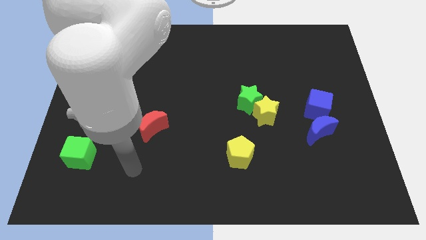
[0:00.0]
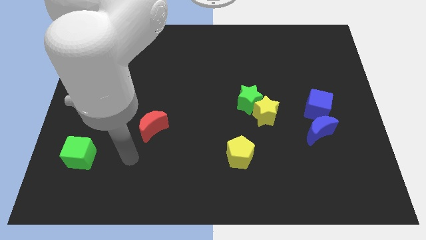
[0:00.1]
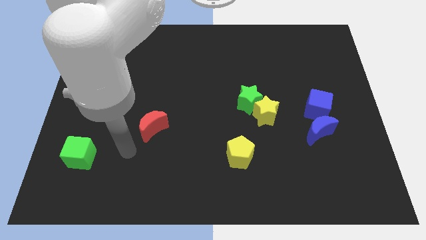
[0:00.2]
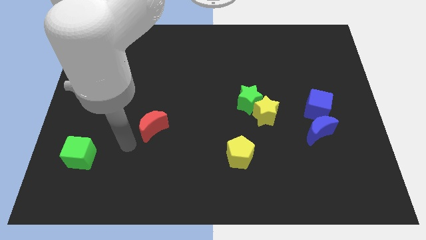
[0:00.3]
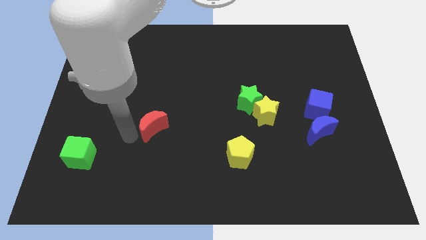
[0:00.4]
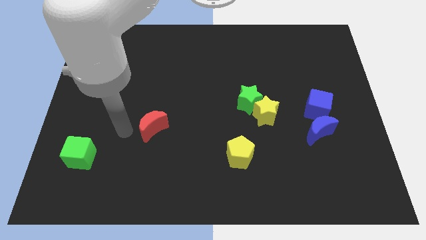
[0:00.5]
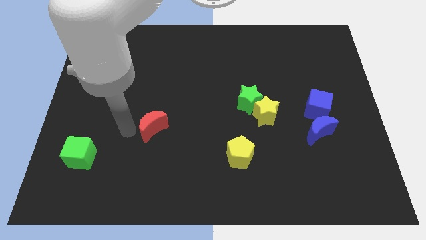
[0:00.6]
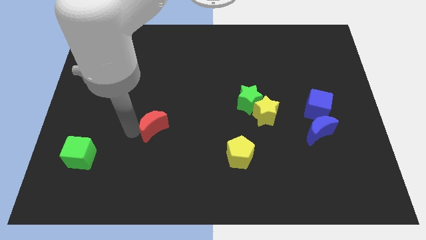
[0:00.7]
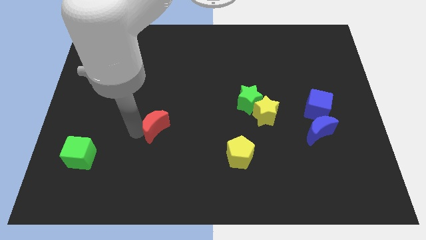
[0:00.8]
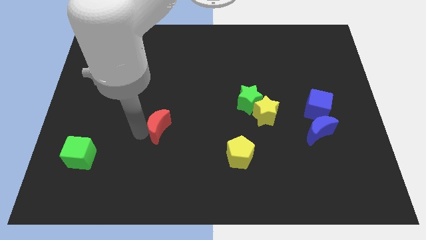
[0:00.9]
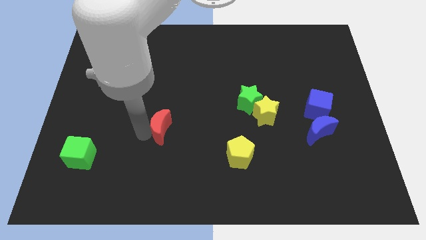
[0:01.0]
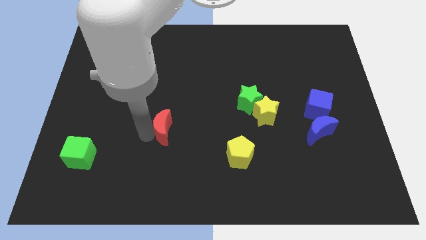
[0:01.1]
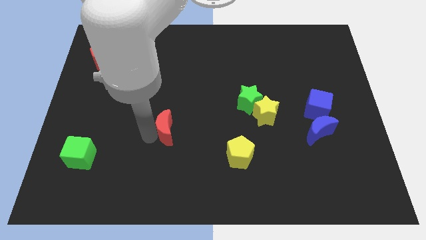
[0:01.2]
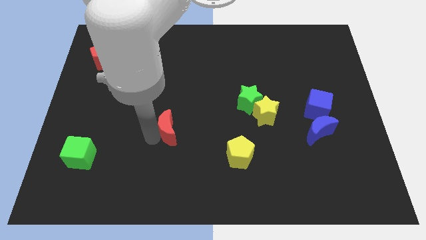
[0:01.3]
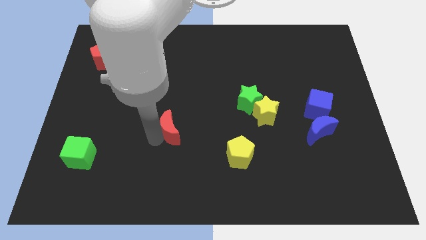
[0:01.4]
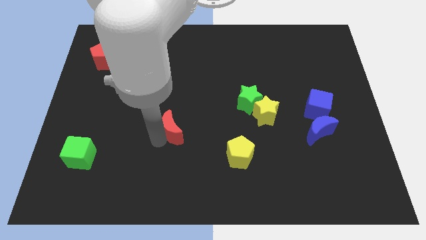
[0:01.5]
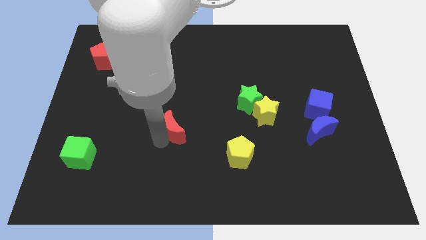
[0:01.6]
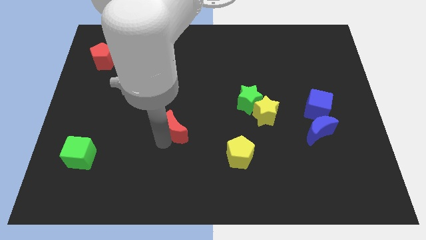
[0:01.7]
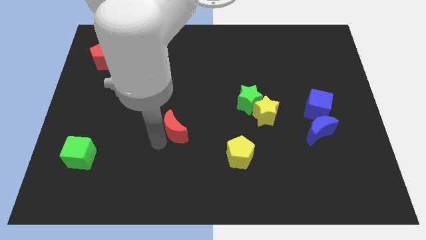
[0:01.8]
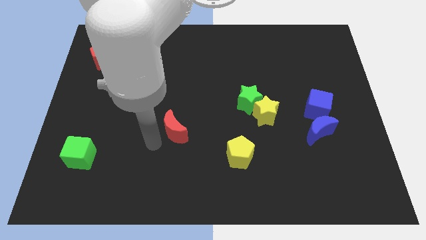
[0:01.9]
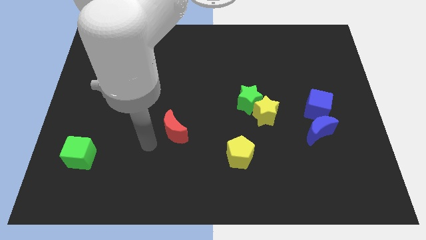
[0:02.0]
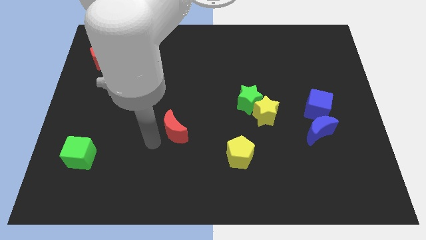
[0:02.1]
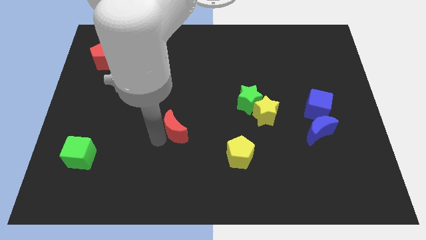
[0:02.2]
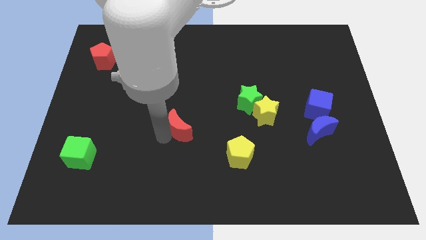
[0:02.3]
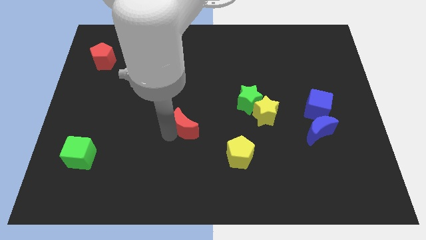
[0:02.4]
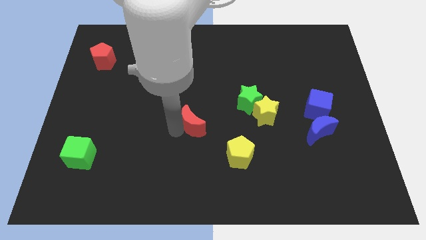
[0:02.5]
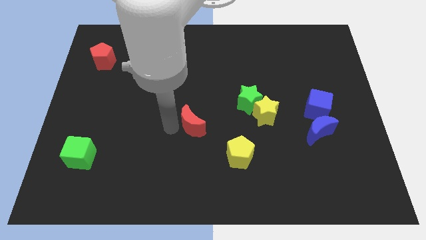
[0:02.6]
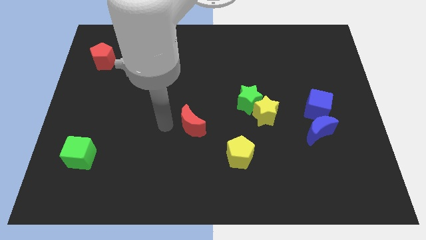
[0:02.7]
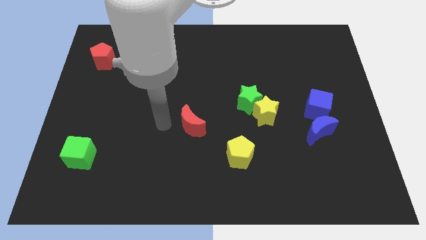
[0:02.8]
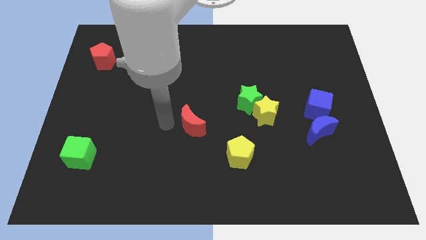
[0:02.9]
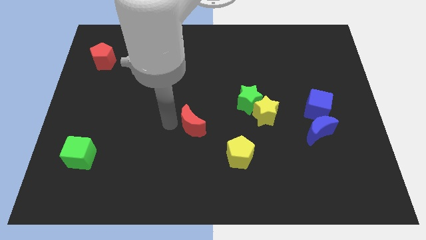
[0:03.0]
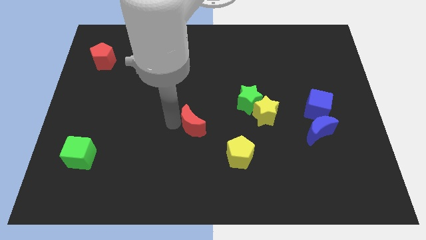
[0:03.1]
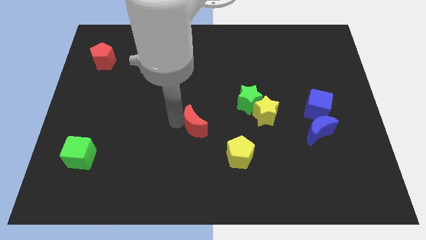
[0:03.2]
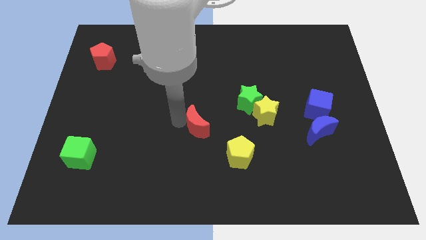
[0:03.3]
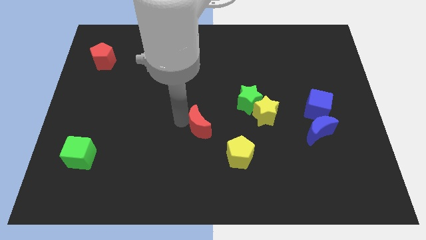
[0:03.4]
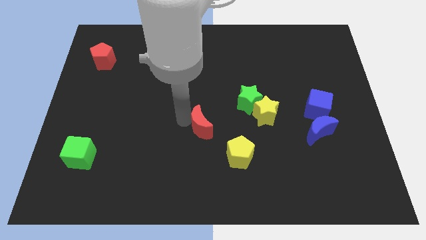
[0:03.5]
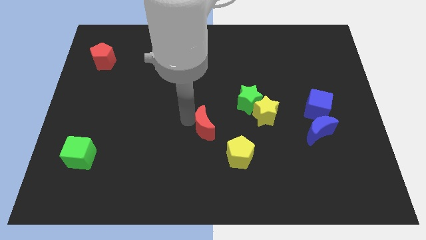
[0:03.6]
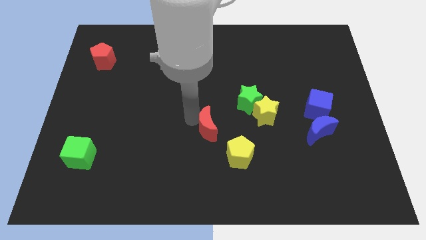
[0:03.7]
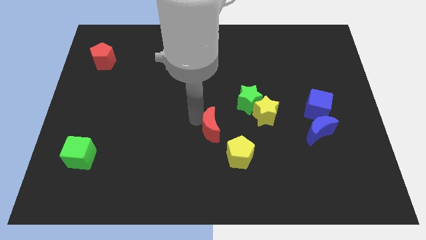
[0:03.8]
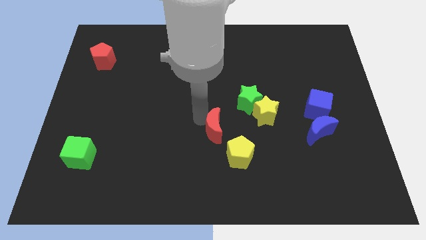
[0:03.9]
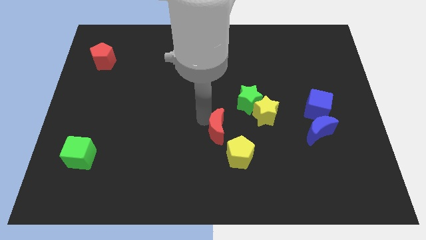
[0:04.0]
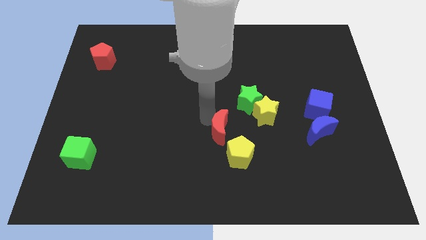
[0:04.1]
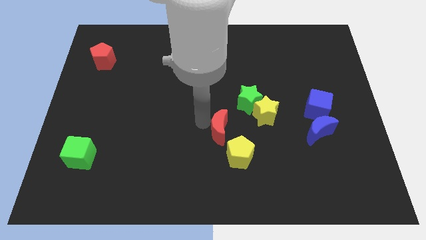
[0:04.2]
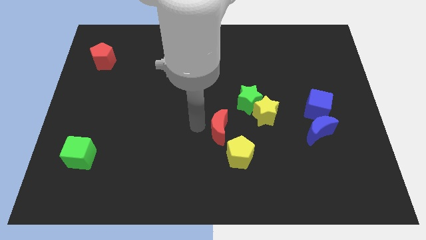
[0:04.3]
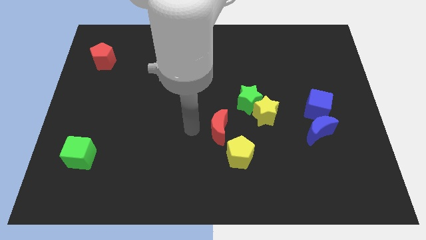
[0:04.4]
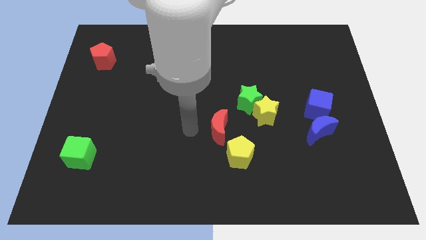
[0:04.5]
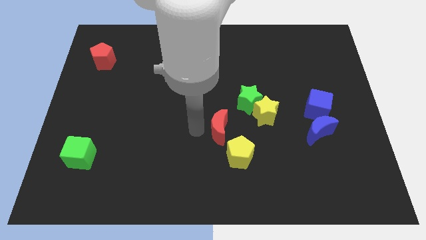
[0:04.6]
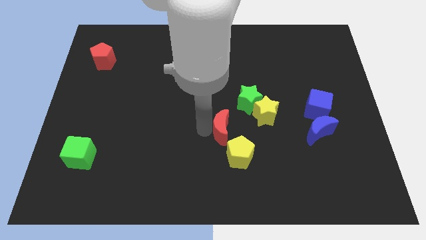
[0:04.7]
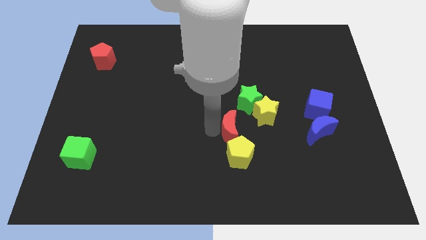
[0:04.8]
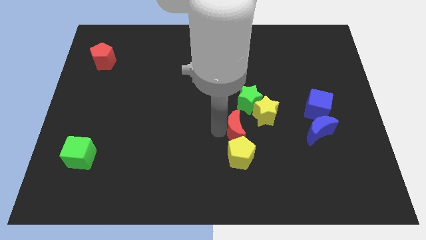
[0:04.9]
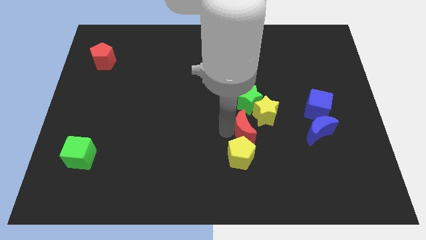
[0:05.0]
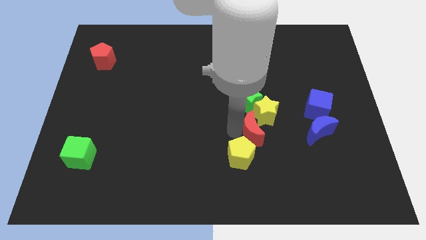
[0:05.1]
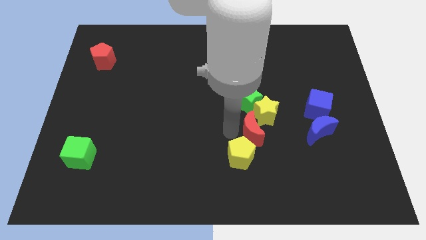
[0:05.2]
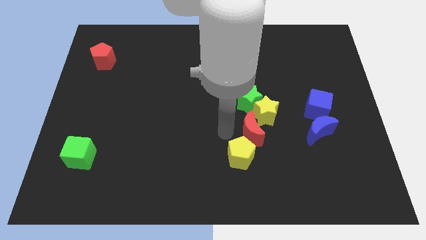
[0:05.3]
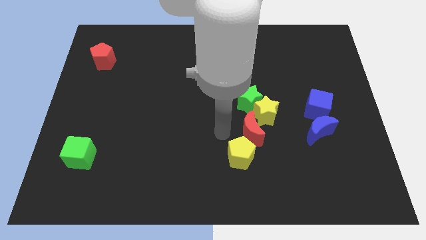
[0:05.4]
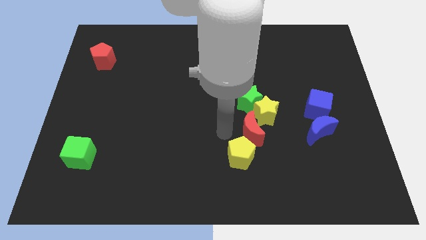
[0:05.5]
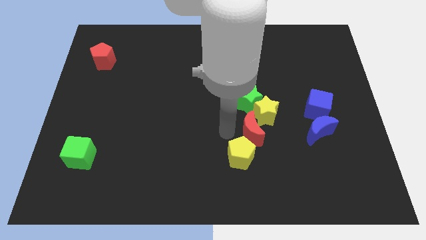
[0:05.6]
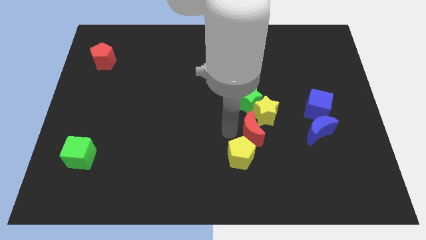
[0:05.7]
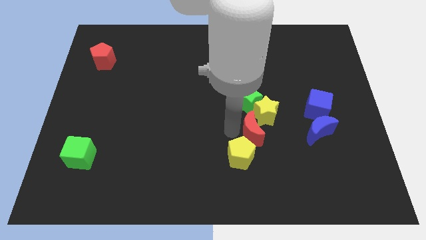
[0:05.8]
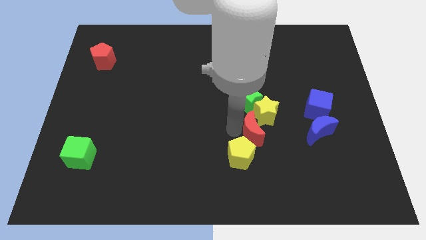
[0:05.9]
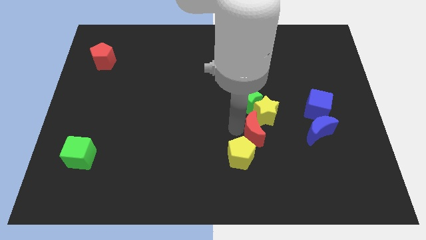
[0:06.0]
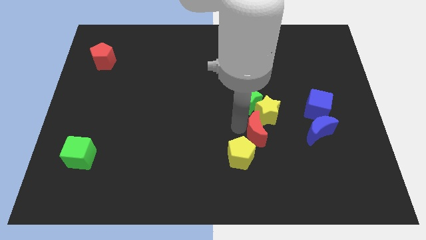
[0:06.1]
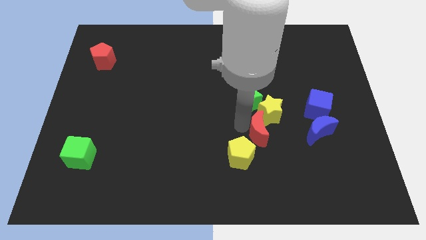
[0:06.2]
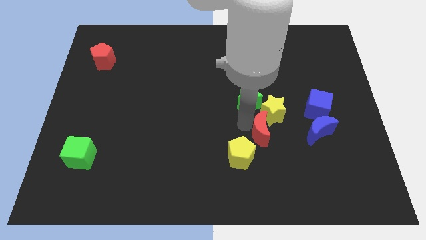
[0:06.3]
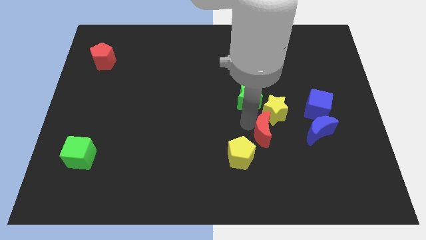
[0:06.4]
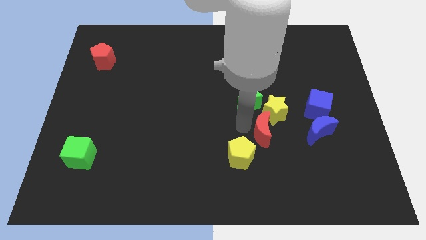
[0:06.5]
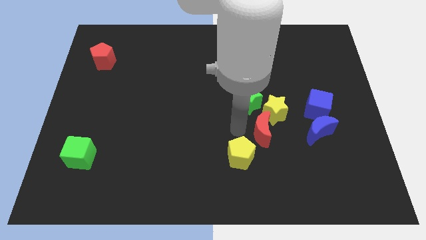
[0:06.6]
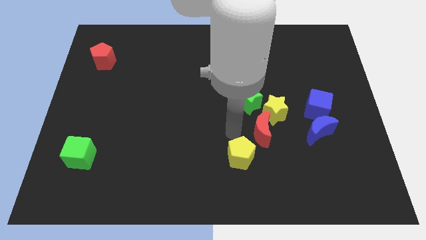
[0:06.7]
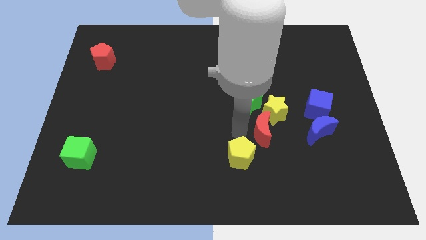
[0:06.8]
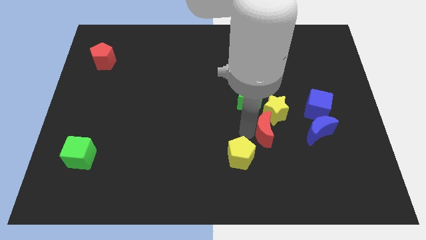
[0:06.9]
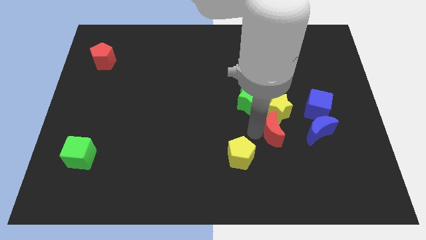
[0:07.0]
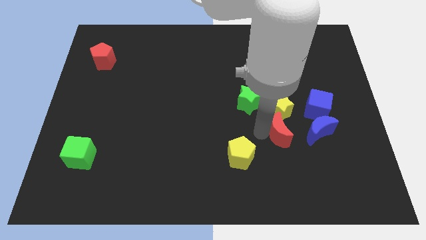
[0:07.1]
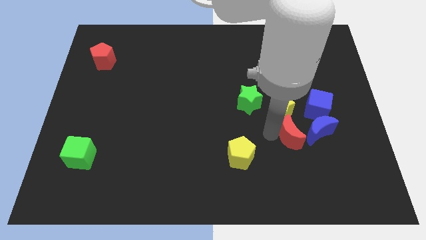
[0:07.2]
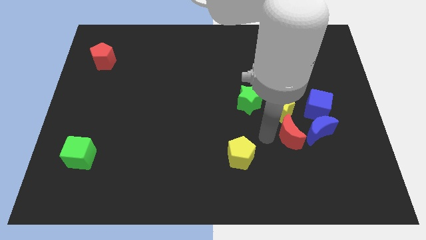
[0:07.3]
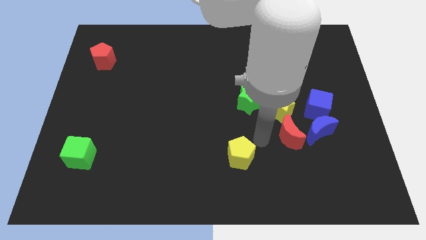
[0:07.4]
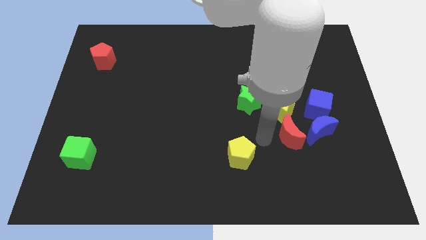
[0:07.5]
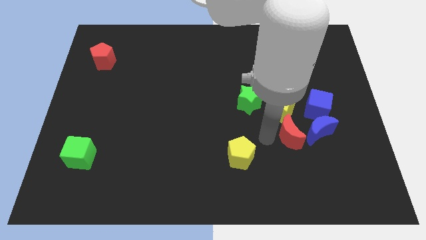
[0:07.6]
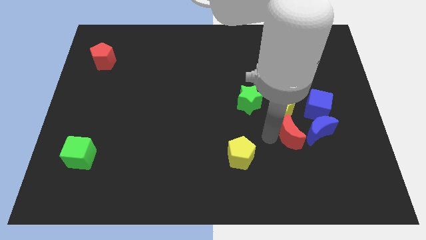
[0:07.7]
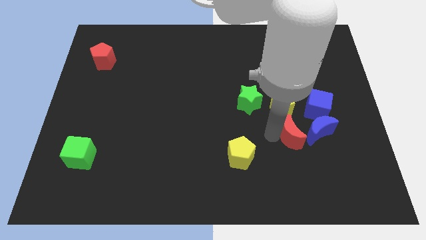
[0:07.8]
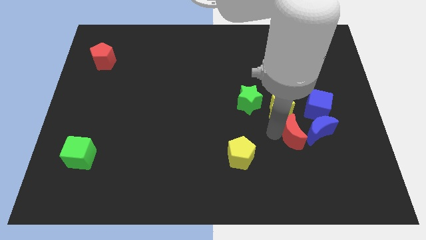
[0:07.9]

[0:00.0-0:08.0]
put the red moon to the blue moon
